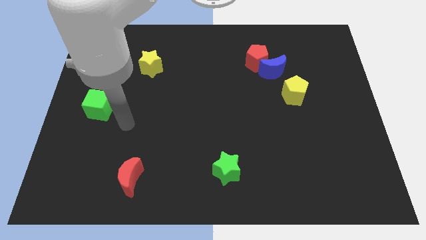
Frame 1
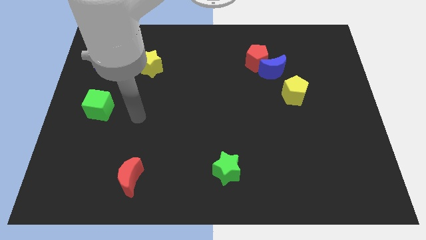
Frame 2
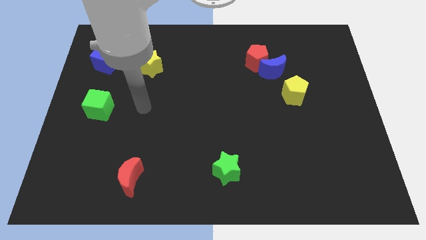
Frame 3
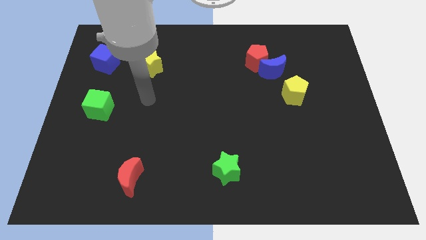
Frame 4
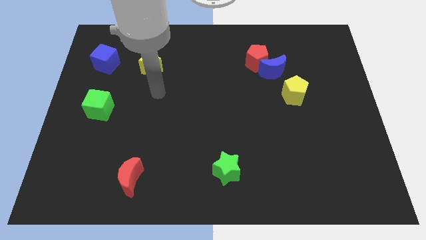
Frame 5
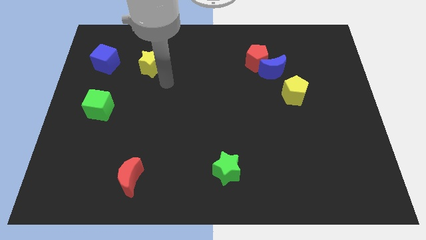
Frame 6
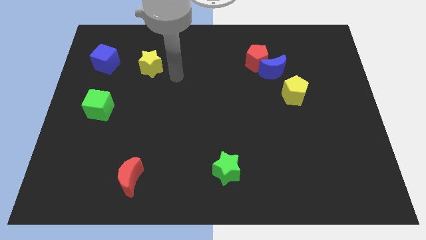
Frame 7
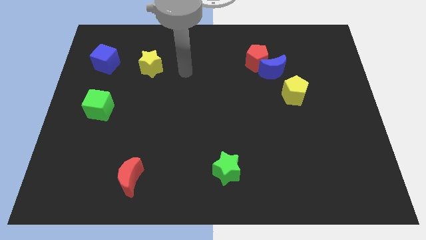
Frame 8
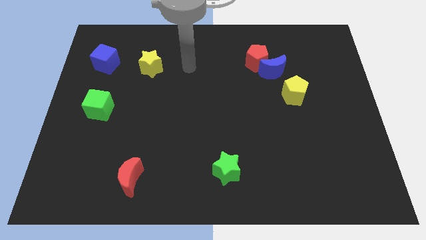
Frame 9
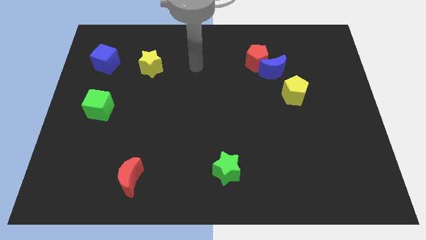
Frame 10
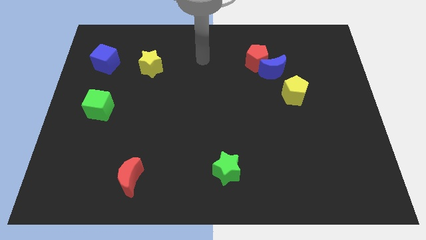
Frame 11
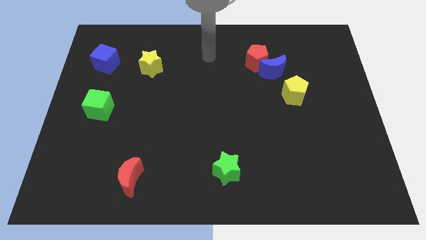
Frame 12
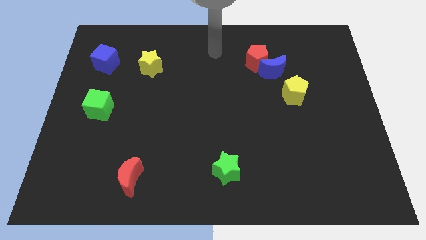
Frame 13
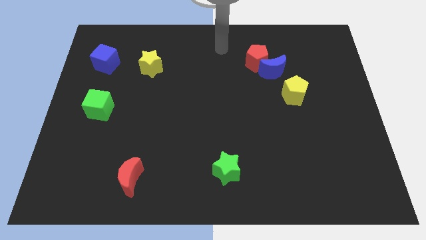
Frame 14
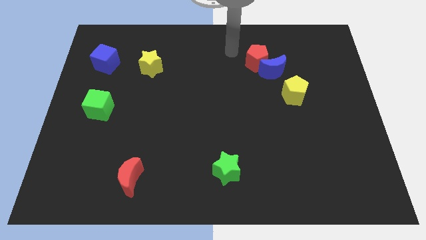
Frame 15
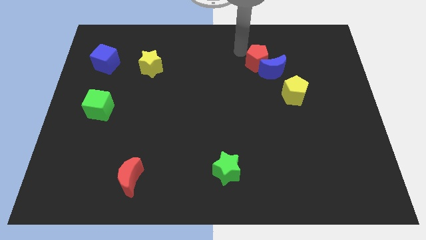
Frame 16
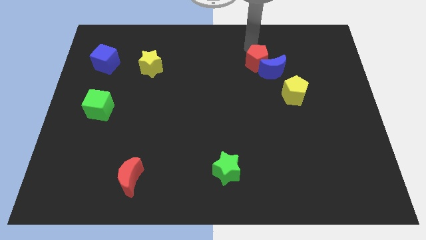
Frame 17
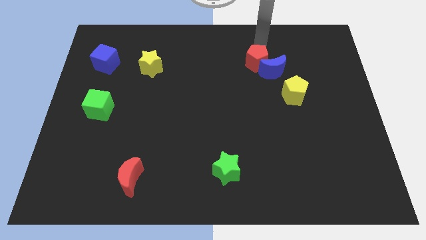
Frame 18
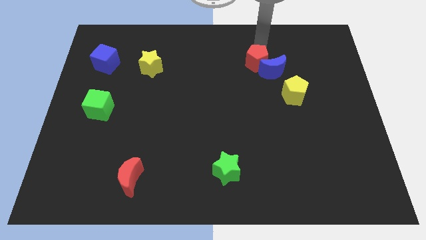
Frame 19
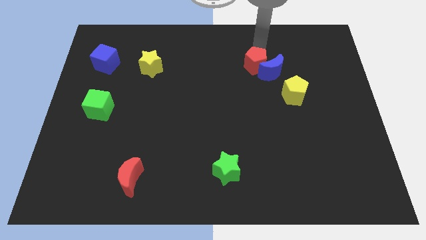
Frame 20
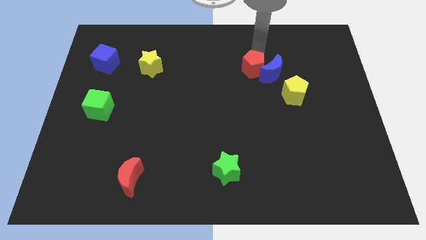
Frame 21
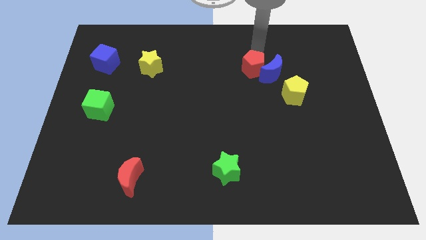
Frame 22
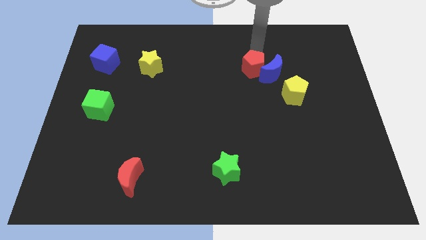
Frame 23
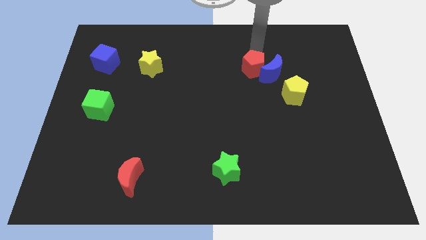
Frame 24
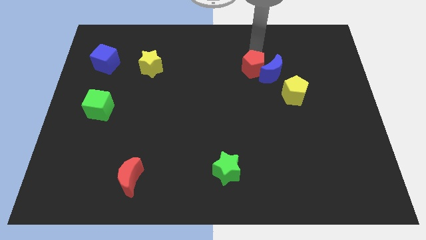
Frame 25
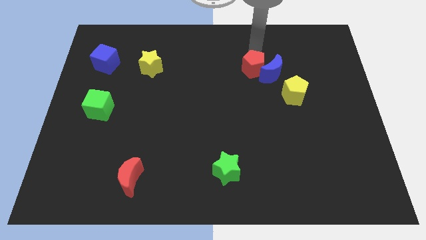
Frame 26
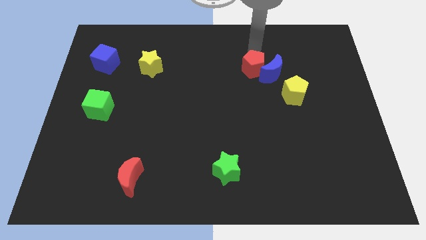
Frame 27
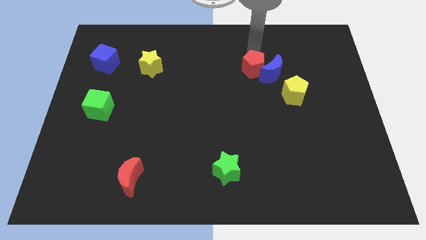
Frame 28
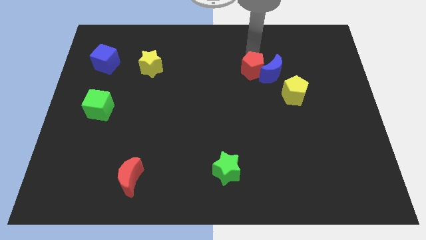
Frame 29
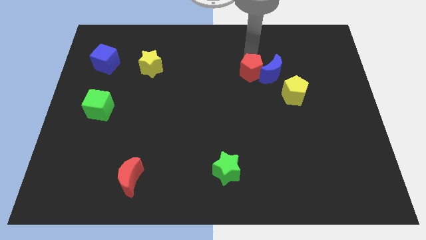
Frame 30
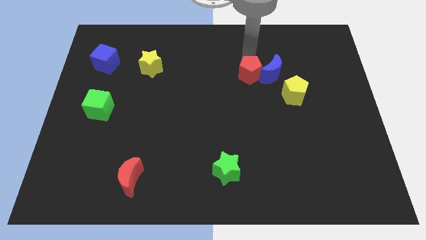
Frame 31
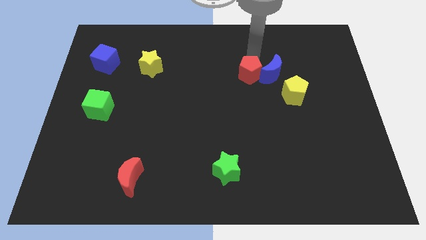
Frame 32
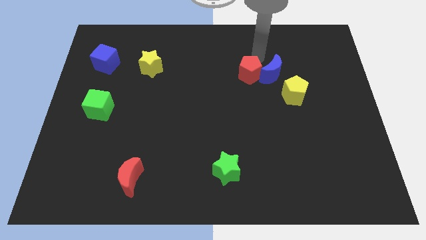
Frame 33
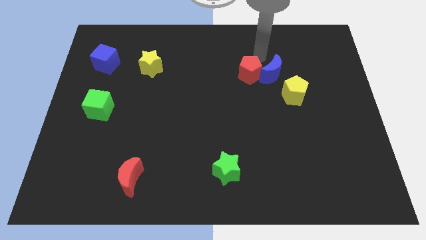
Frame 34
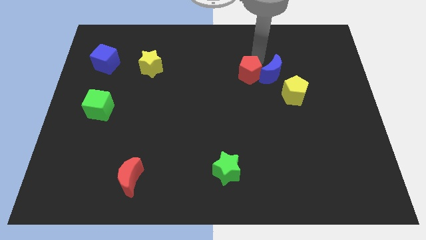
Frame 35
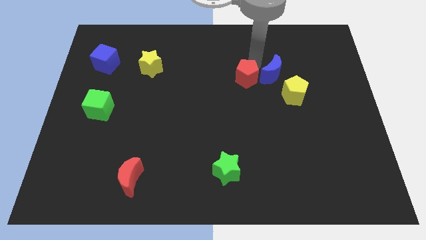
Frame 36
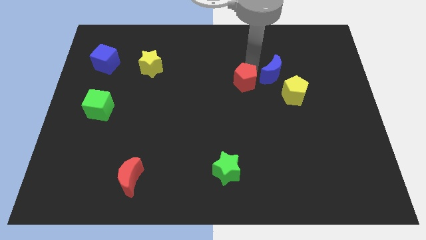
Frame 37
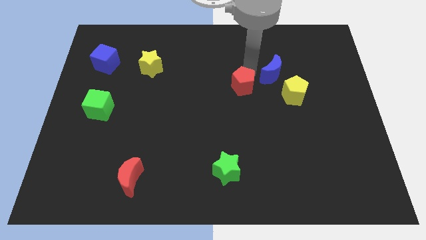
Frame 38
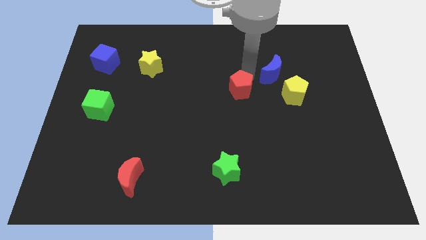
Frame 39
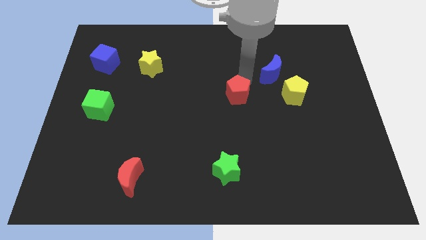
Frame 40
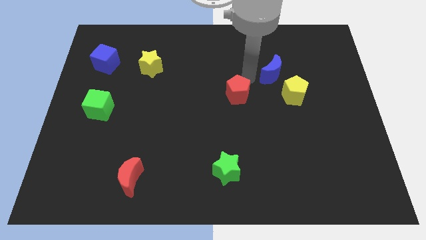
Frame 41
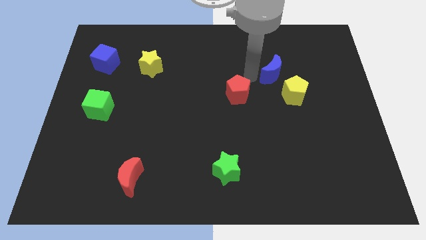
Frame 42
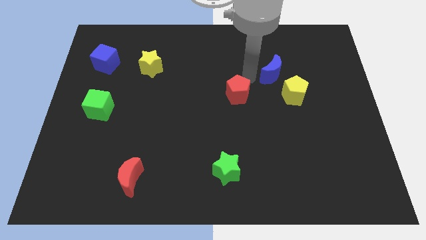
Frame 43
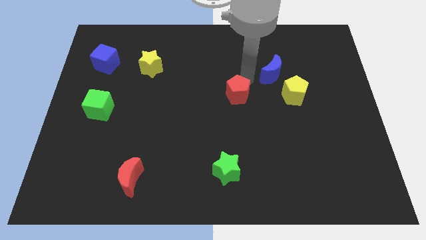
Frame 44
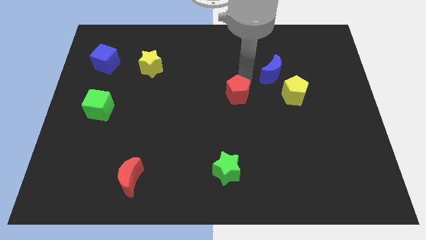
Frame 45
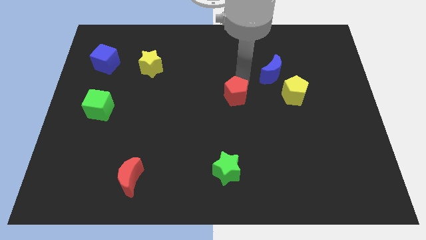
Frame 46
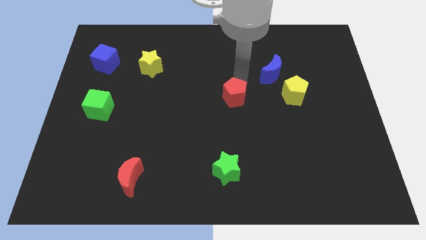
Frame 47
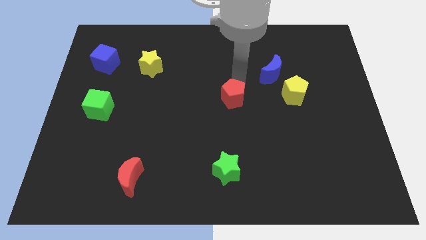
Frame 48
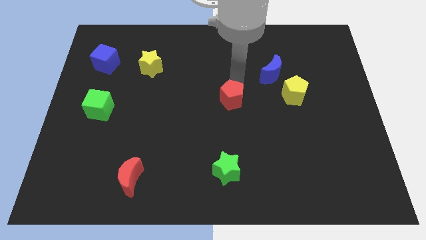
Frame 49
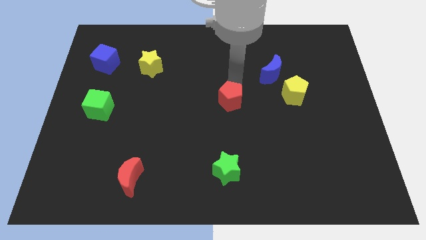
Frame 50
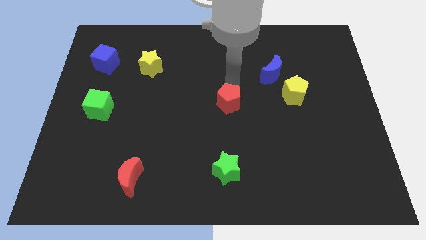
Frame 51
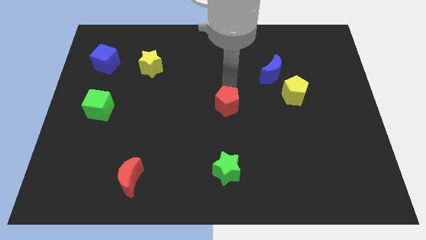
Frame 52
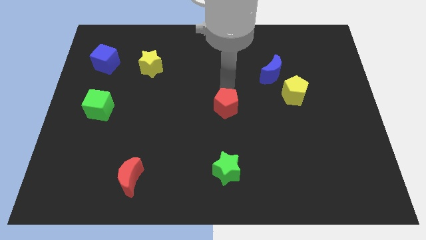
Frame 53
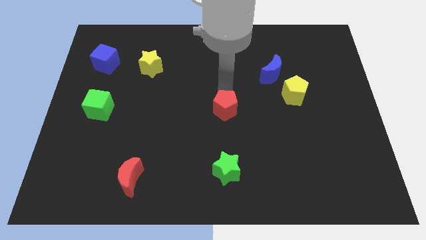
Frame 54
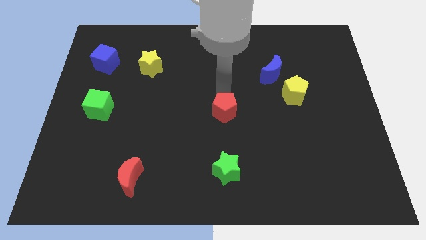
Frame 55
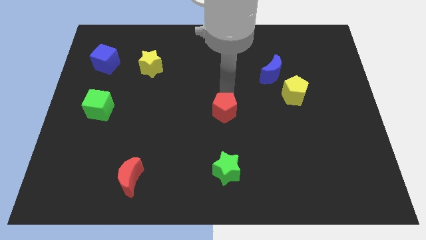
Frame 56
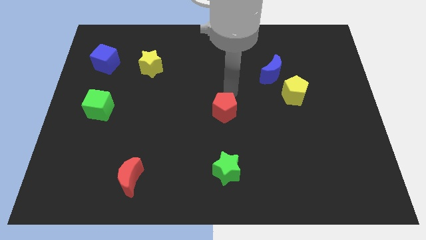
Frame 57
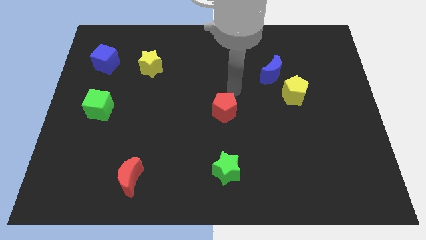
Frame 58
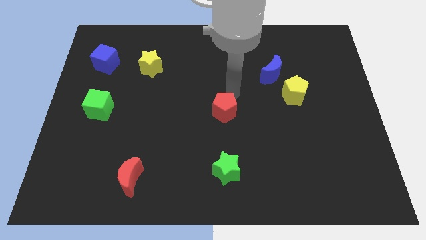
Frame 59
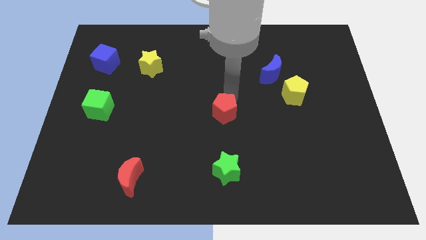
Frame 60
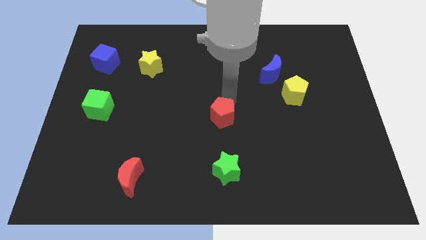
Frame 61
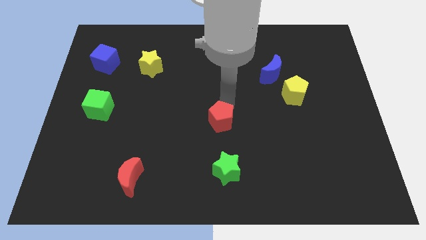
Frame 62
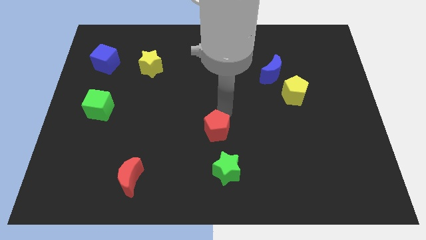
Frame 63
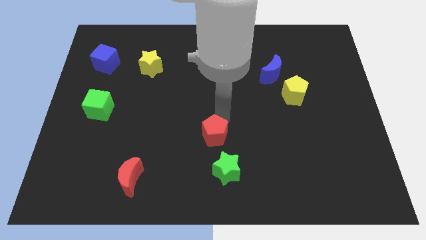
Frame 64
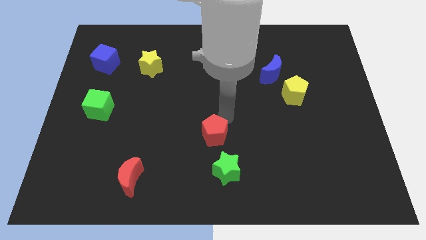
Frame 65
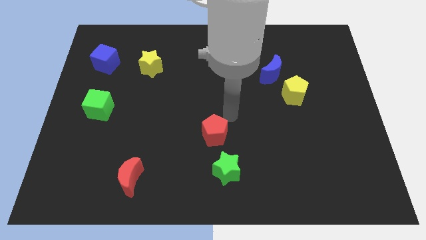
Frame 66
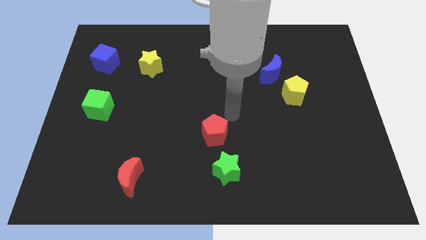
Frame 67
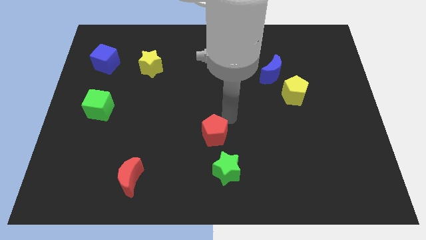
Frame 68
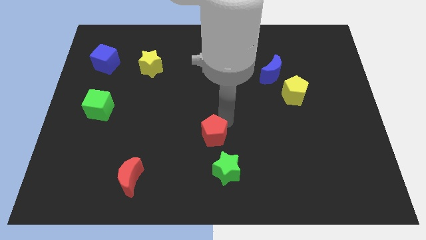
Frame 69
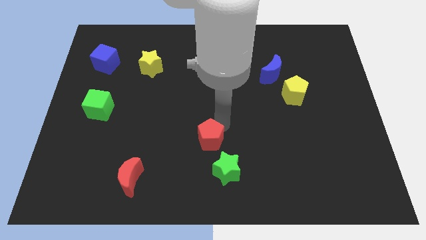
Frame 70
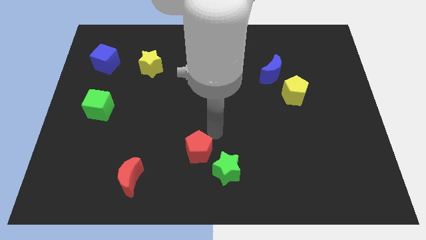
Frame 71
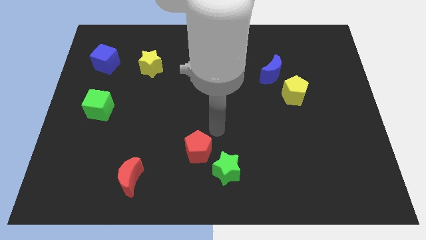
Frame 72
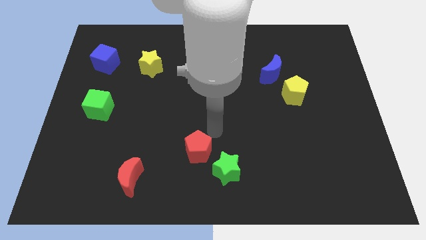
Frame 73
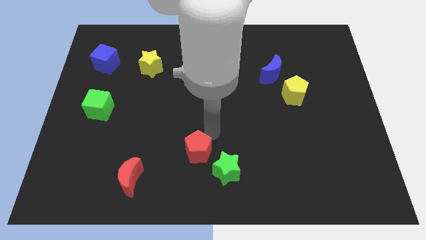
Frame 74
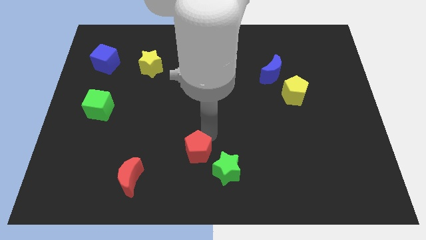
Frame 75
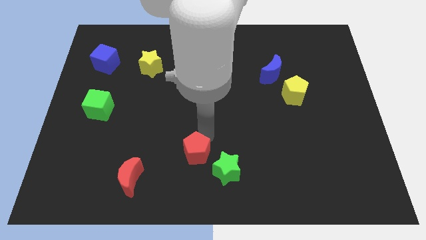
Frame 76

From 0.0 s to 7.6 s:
move the red pentagon left of the green star
